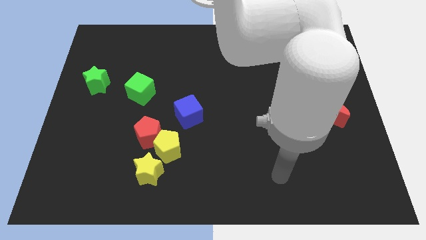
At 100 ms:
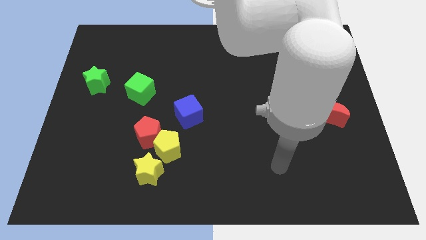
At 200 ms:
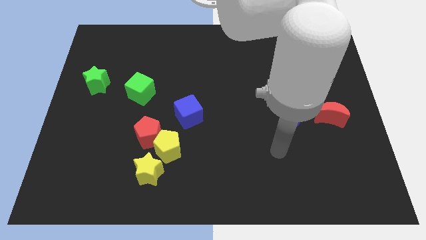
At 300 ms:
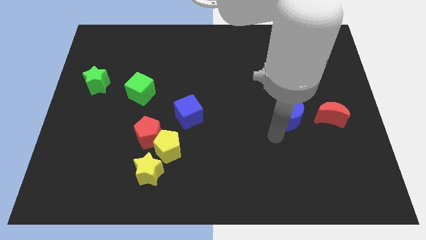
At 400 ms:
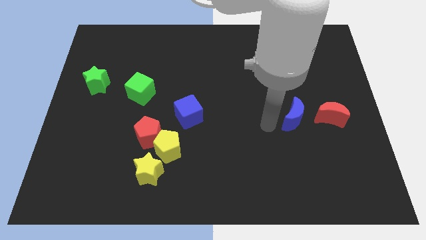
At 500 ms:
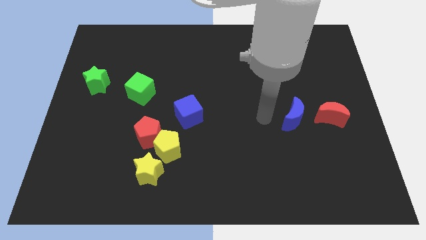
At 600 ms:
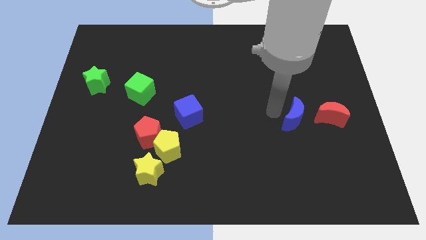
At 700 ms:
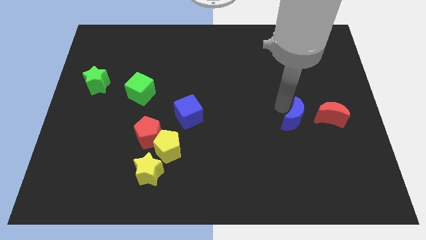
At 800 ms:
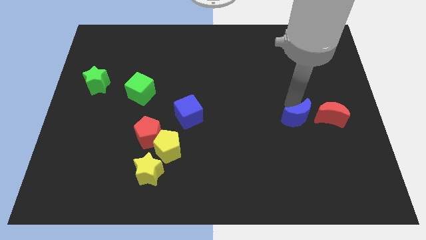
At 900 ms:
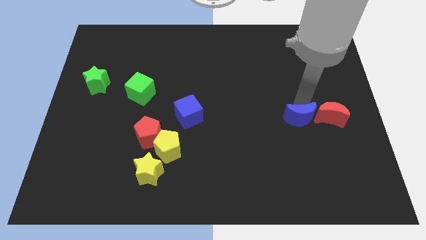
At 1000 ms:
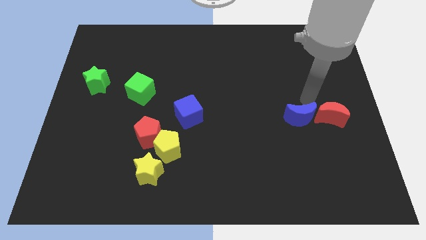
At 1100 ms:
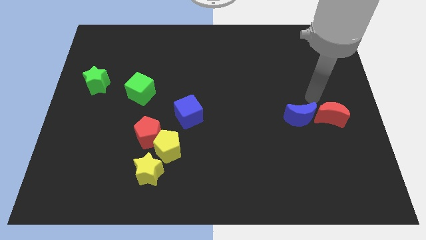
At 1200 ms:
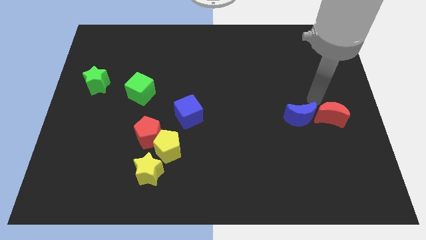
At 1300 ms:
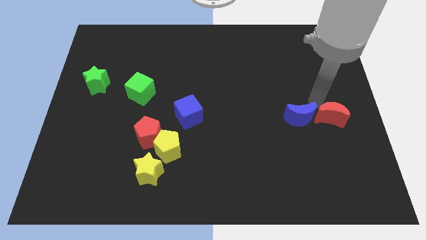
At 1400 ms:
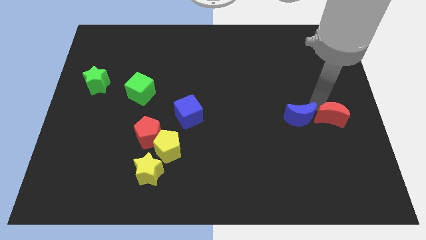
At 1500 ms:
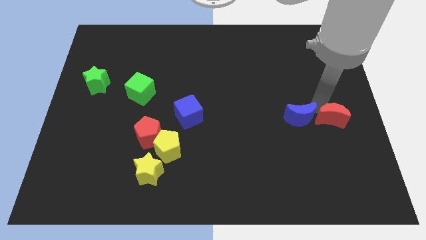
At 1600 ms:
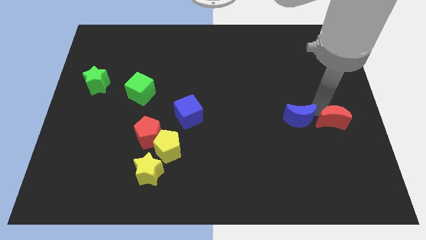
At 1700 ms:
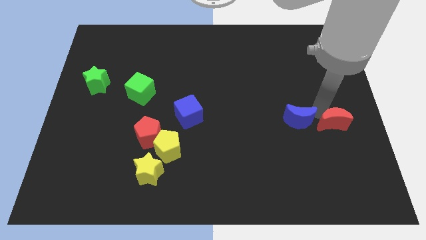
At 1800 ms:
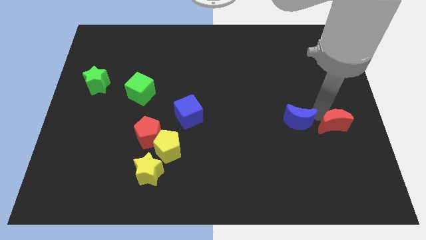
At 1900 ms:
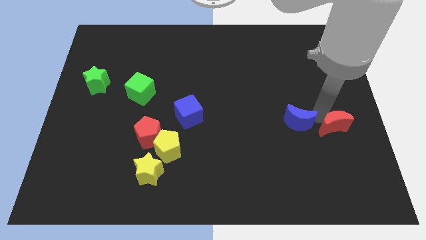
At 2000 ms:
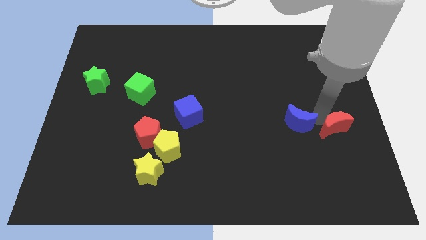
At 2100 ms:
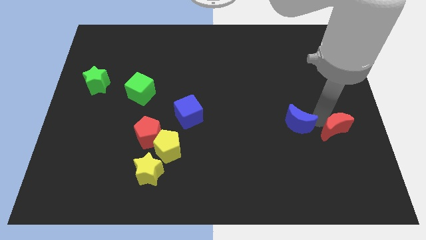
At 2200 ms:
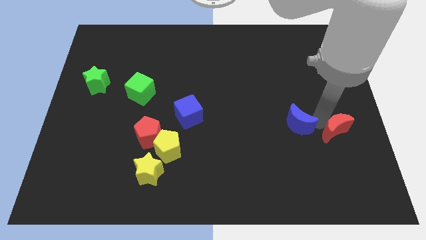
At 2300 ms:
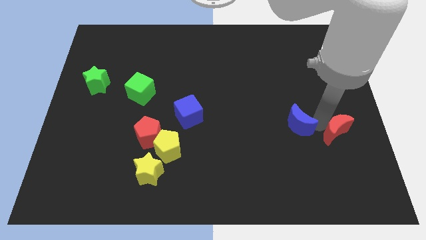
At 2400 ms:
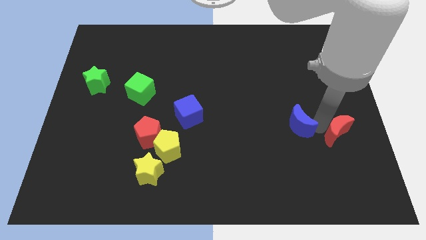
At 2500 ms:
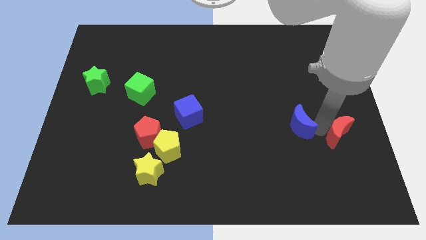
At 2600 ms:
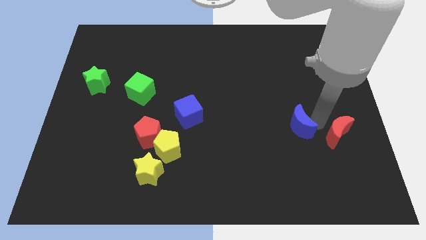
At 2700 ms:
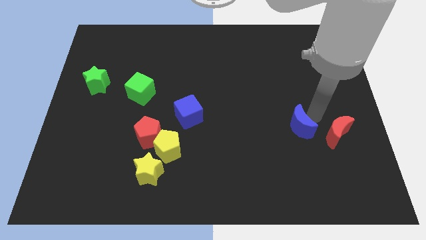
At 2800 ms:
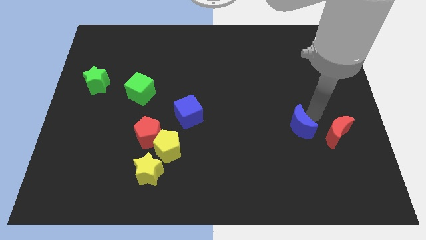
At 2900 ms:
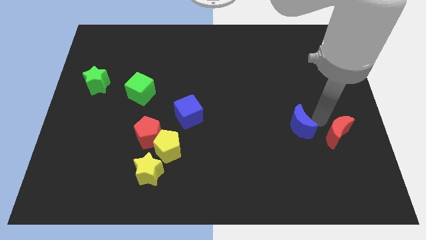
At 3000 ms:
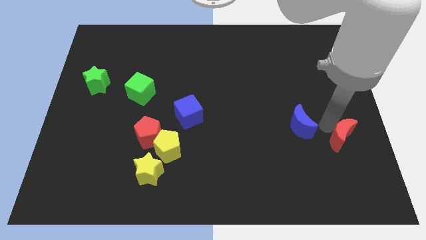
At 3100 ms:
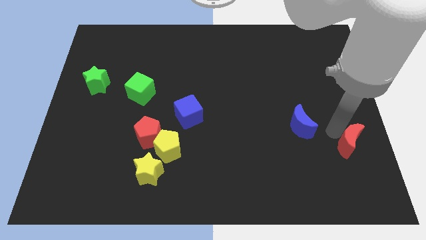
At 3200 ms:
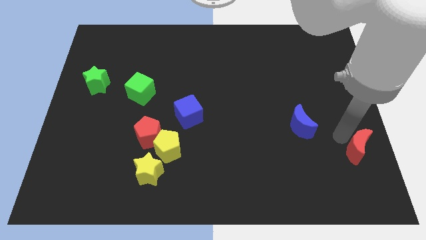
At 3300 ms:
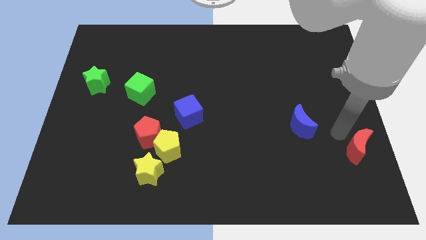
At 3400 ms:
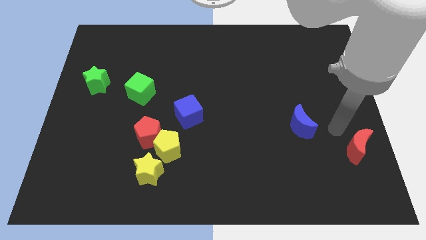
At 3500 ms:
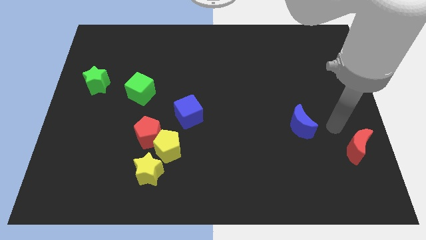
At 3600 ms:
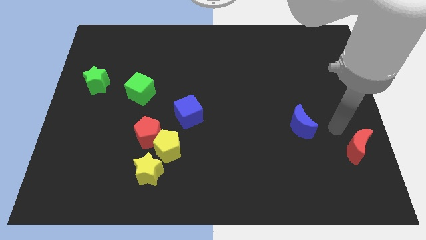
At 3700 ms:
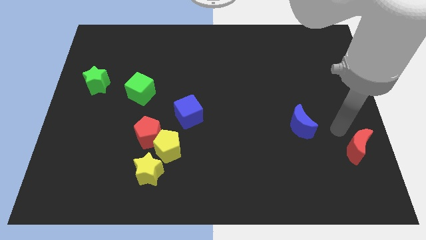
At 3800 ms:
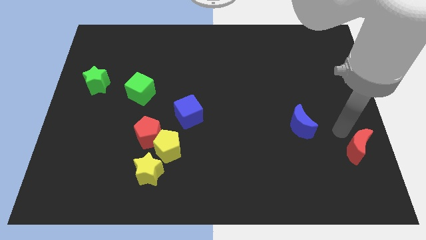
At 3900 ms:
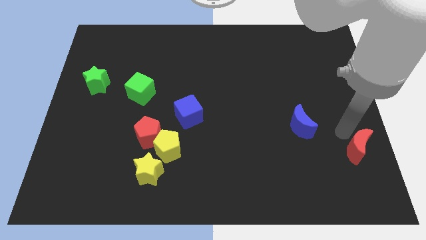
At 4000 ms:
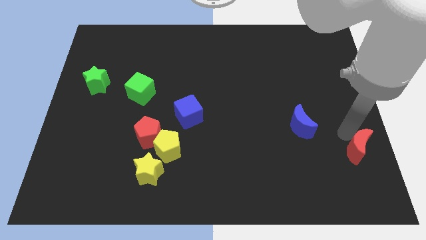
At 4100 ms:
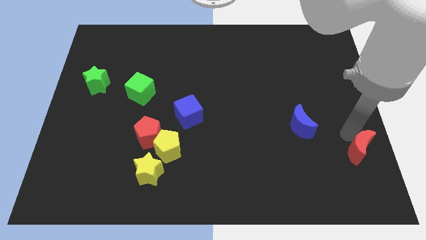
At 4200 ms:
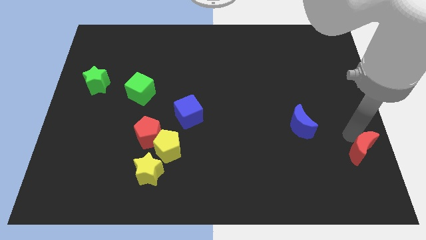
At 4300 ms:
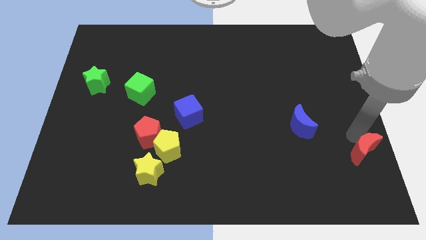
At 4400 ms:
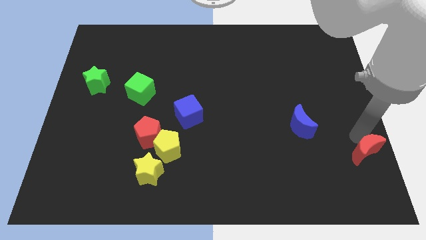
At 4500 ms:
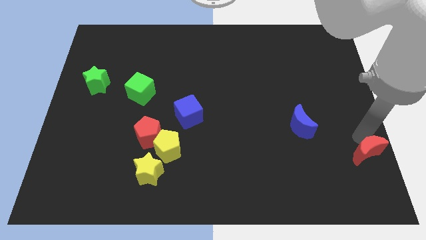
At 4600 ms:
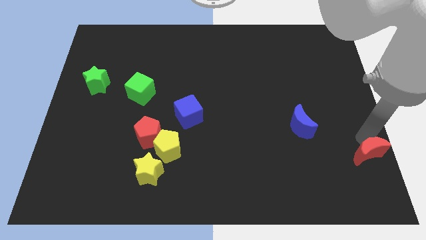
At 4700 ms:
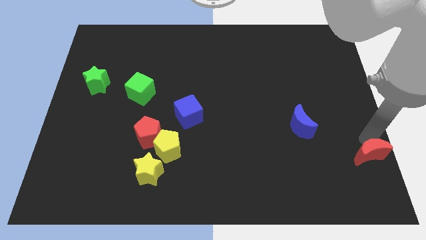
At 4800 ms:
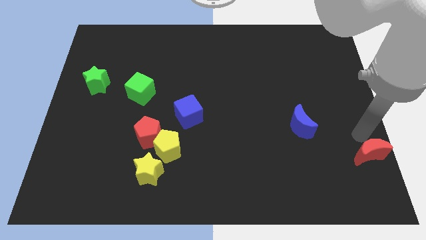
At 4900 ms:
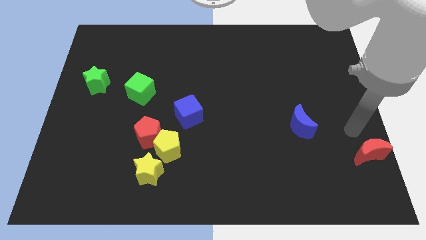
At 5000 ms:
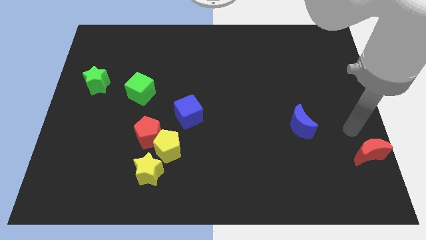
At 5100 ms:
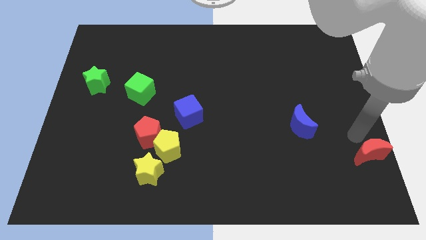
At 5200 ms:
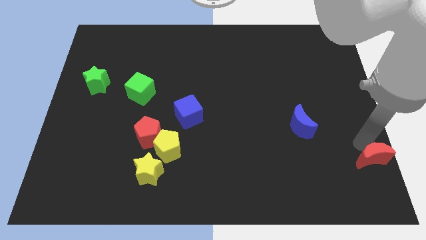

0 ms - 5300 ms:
push the red moon to the bottom right of the board

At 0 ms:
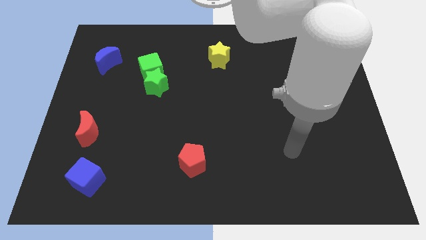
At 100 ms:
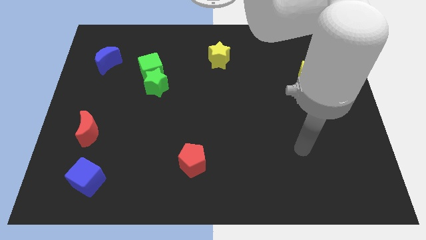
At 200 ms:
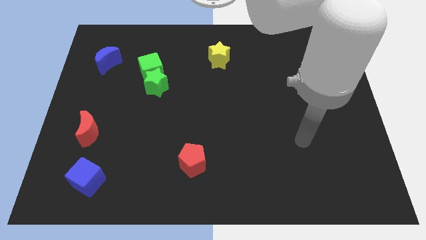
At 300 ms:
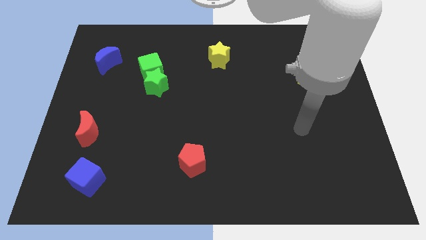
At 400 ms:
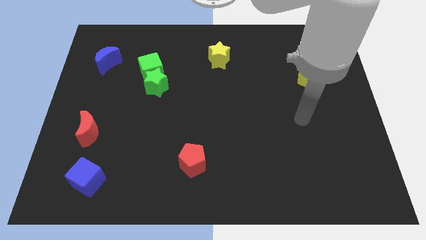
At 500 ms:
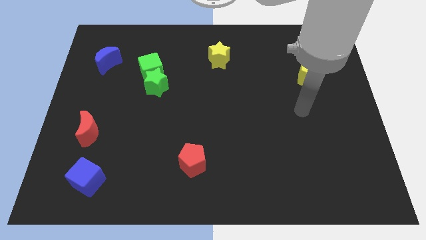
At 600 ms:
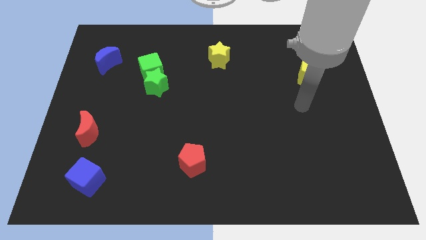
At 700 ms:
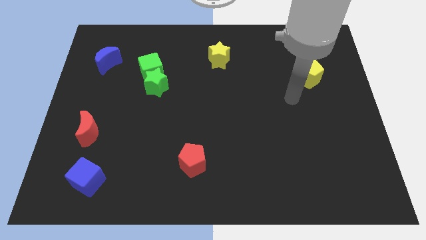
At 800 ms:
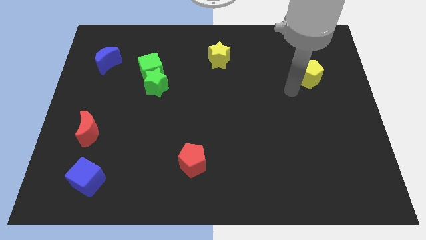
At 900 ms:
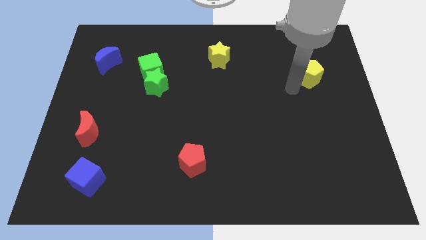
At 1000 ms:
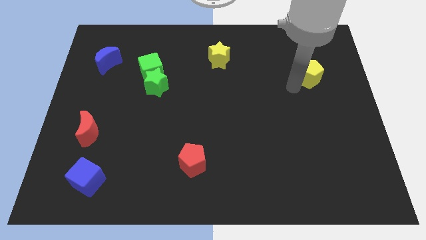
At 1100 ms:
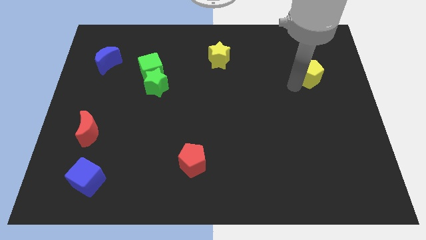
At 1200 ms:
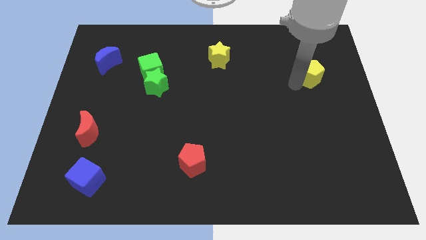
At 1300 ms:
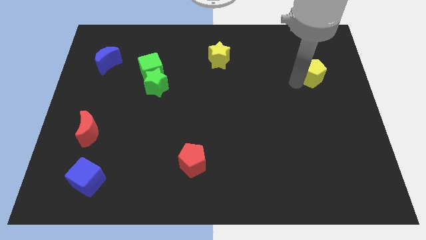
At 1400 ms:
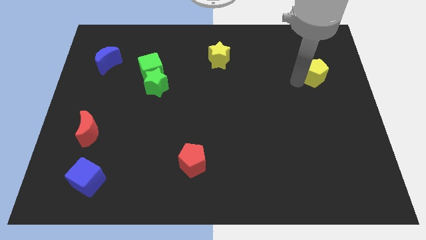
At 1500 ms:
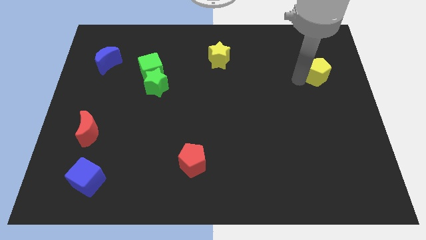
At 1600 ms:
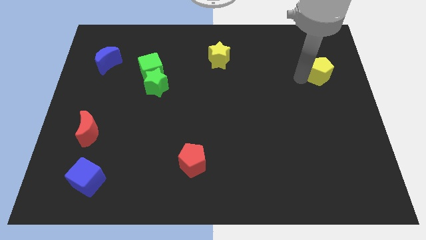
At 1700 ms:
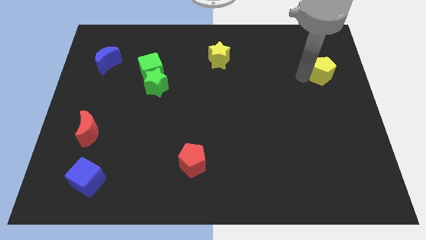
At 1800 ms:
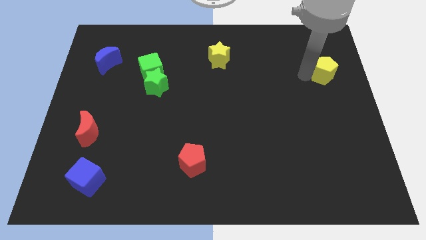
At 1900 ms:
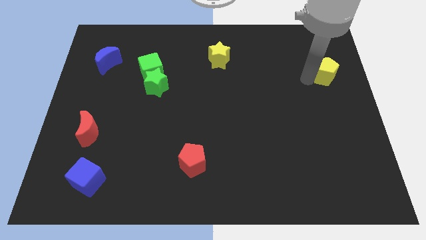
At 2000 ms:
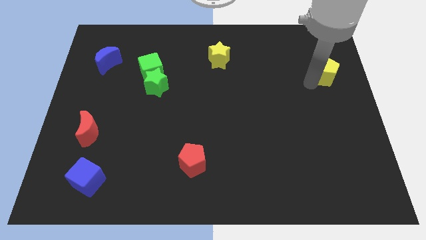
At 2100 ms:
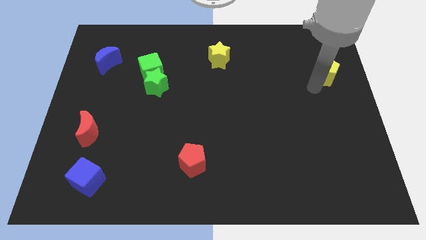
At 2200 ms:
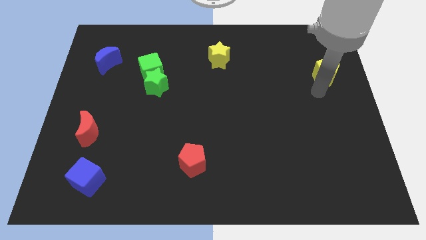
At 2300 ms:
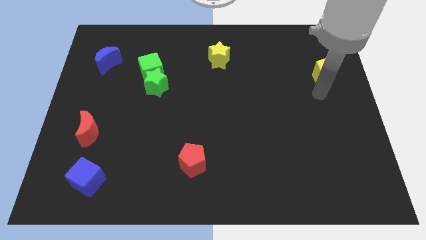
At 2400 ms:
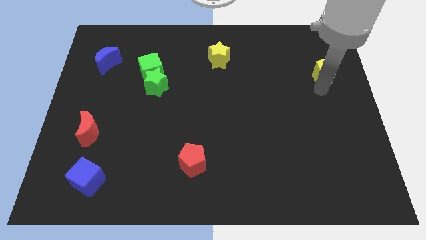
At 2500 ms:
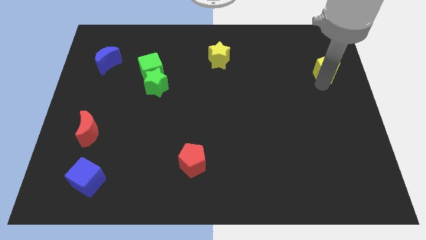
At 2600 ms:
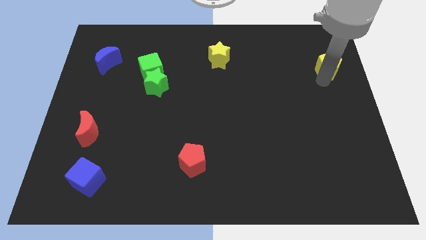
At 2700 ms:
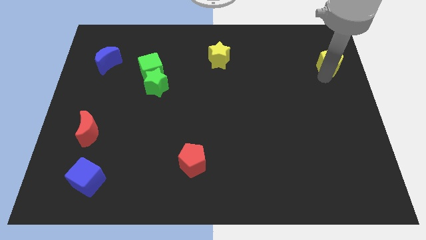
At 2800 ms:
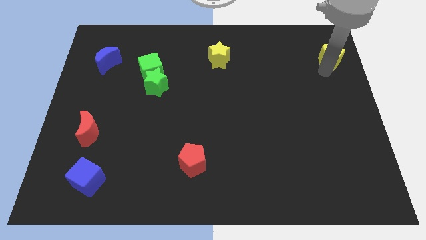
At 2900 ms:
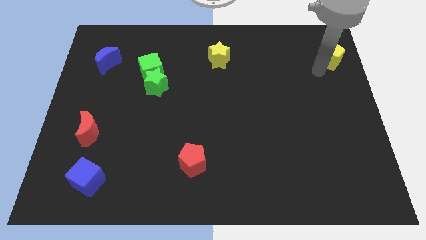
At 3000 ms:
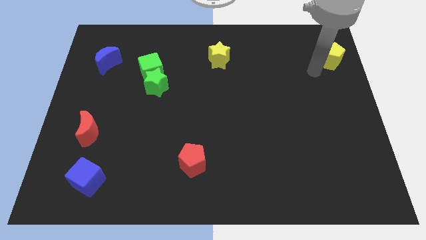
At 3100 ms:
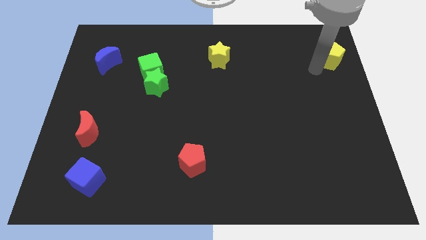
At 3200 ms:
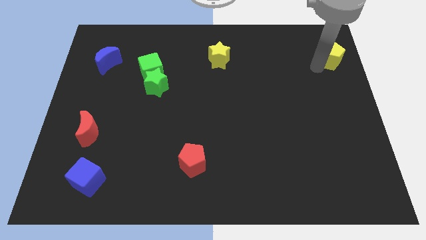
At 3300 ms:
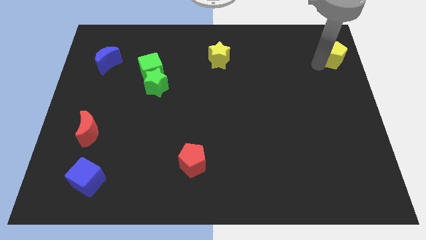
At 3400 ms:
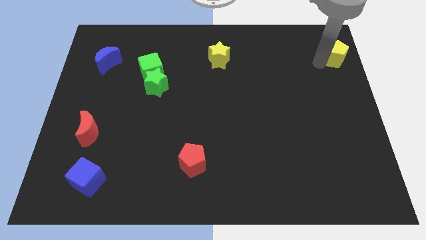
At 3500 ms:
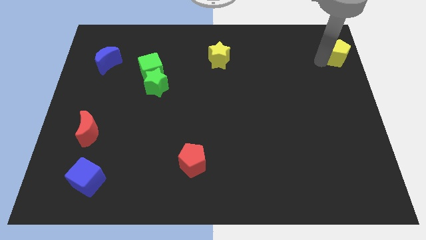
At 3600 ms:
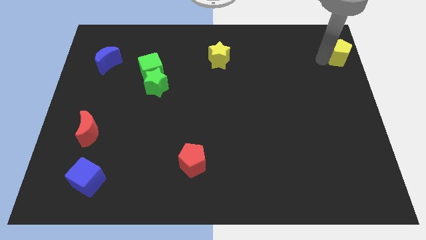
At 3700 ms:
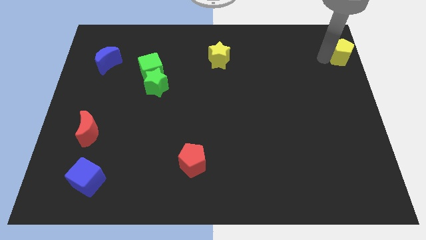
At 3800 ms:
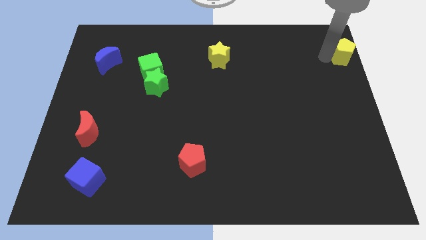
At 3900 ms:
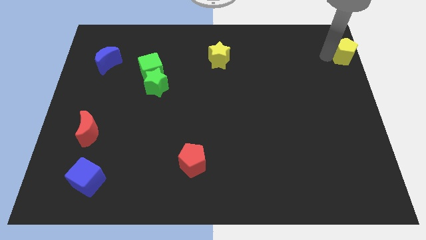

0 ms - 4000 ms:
push the yellow pentagon to the upper right corner
